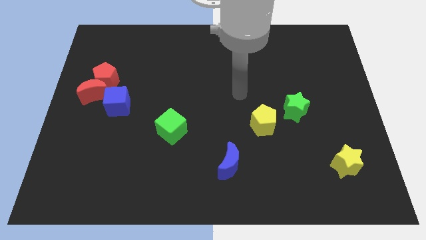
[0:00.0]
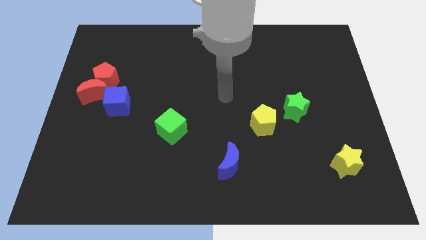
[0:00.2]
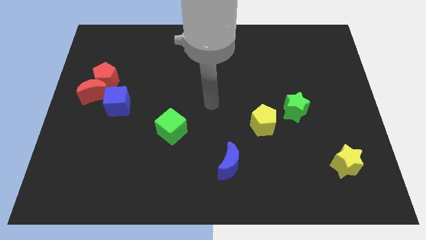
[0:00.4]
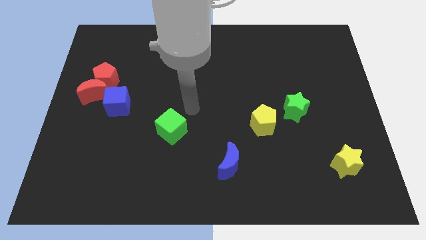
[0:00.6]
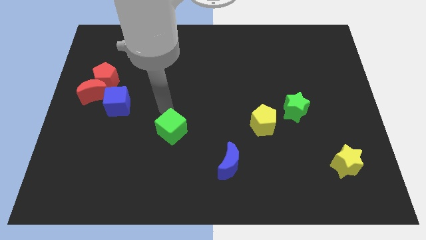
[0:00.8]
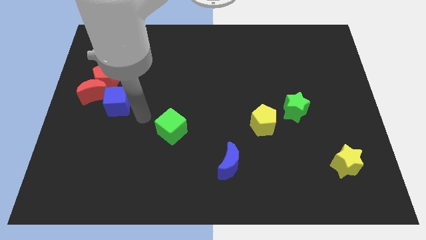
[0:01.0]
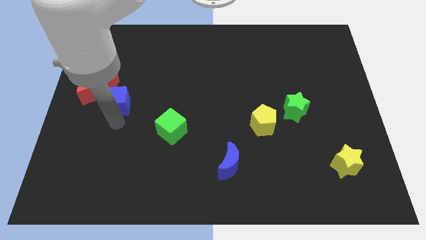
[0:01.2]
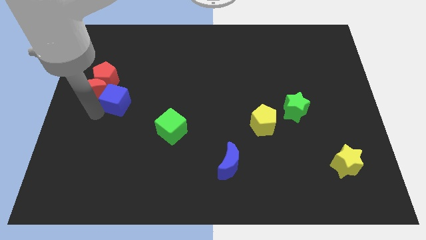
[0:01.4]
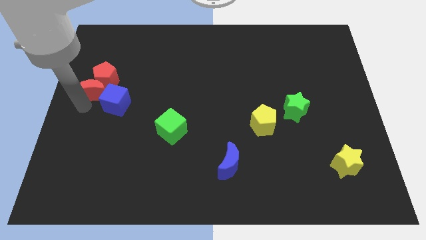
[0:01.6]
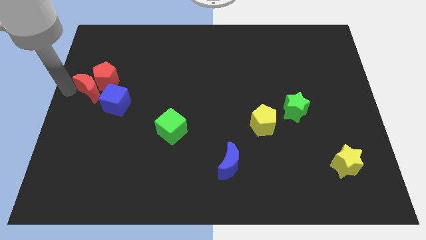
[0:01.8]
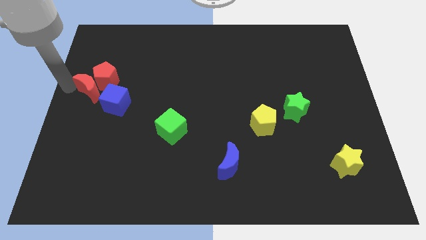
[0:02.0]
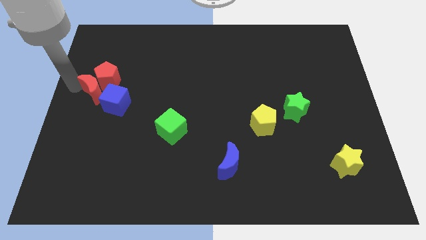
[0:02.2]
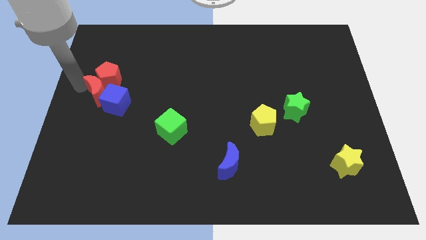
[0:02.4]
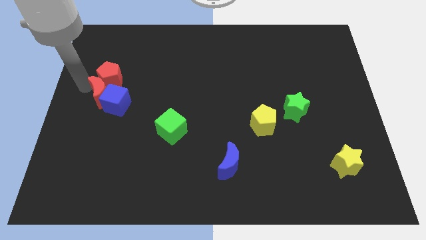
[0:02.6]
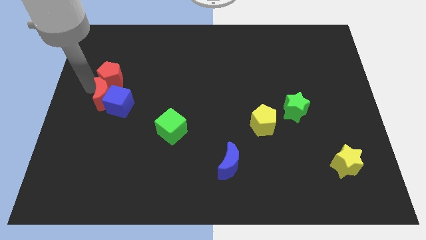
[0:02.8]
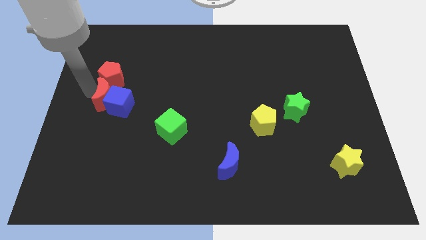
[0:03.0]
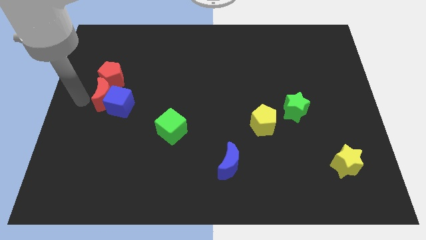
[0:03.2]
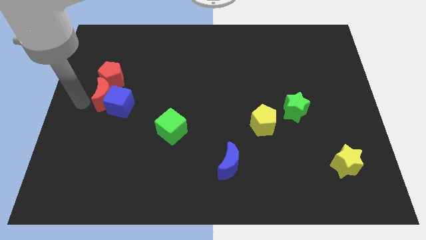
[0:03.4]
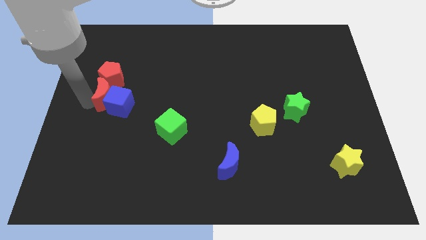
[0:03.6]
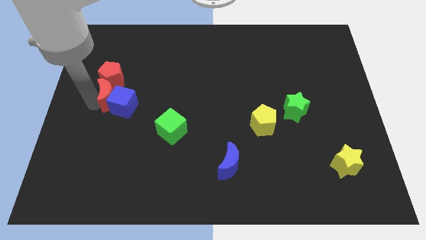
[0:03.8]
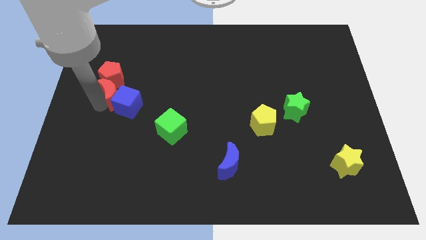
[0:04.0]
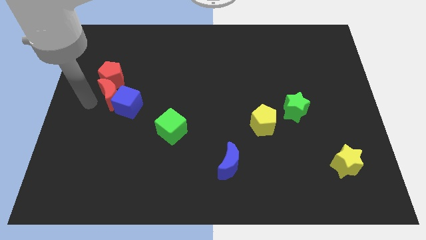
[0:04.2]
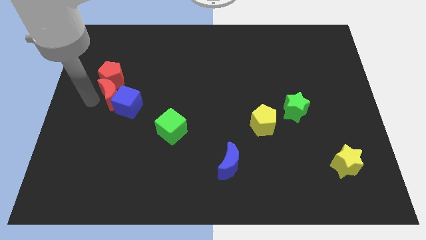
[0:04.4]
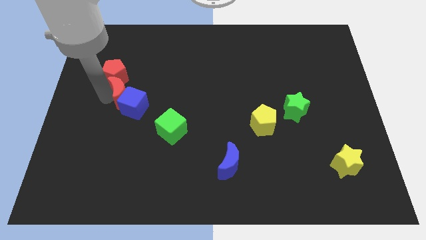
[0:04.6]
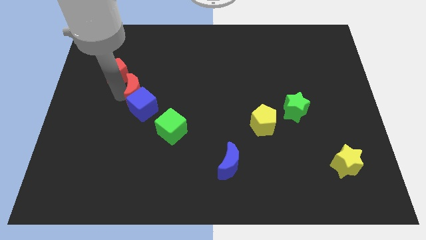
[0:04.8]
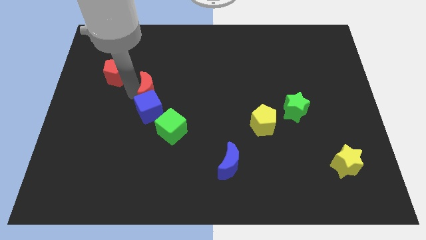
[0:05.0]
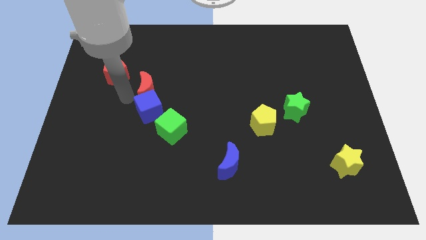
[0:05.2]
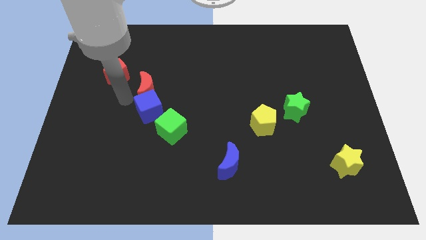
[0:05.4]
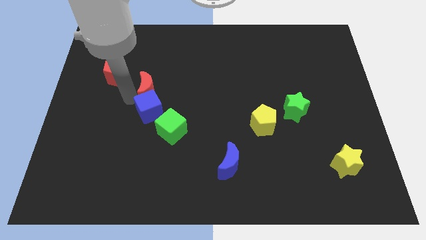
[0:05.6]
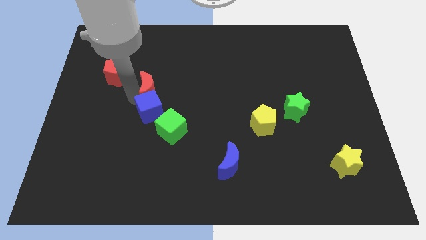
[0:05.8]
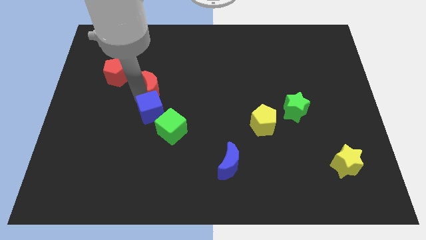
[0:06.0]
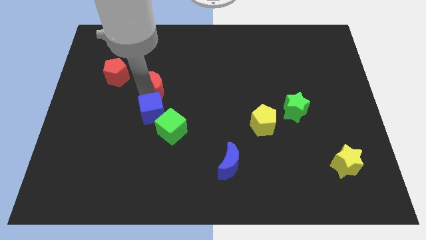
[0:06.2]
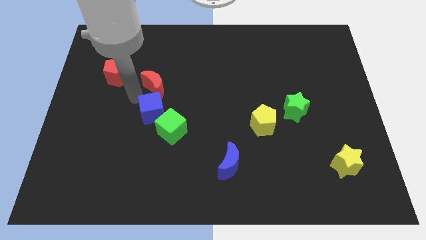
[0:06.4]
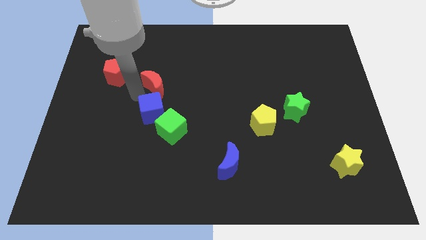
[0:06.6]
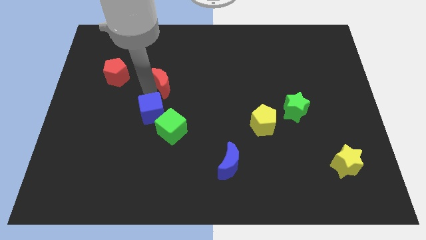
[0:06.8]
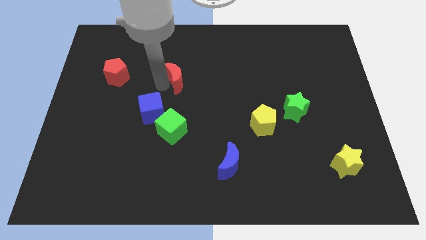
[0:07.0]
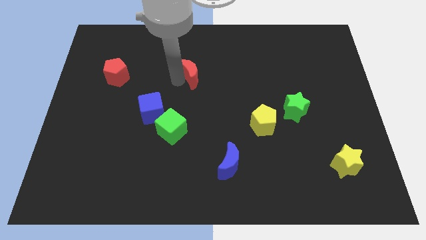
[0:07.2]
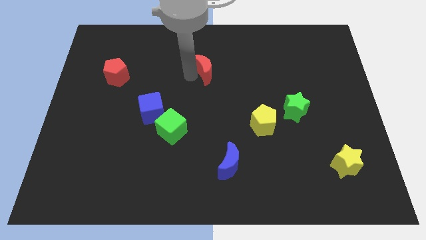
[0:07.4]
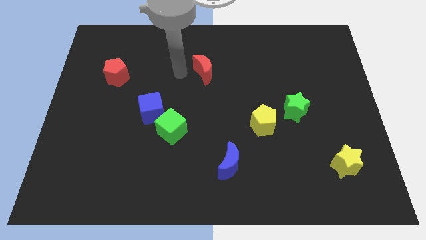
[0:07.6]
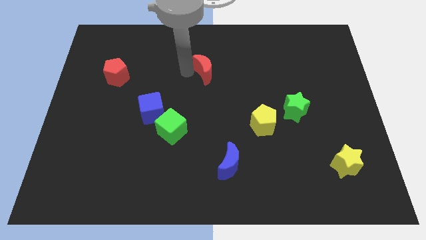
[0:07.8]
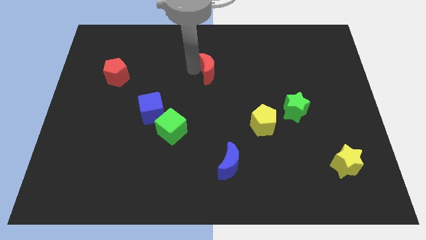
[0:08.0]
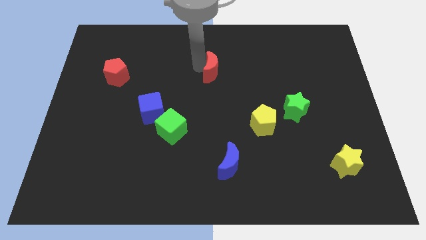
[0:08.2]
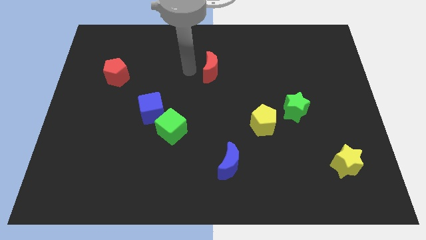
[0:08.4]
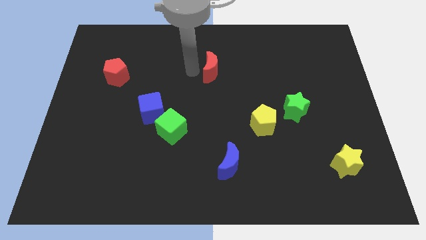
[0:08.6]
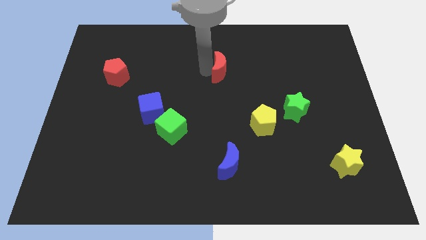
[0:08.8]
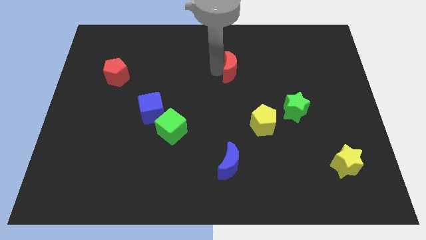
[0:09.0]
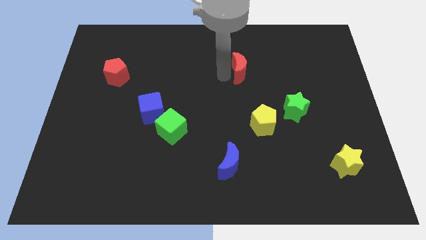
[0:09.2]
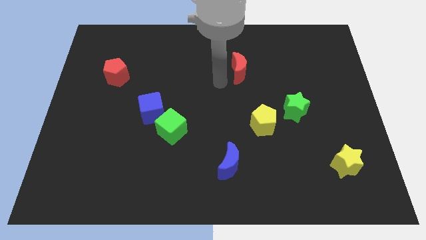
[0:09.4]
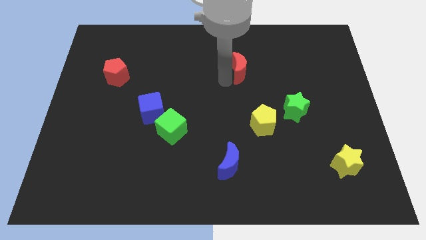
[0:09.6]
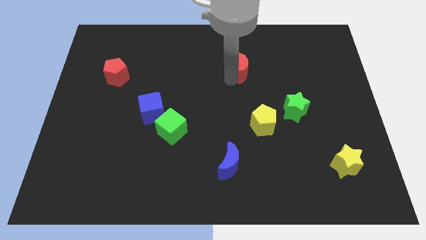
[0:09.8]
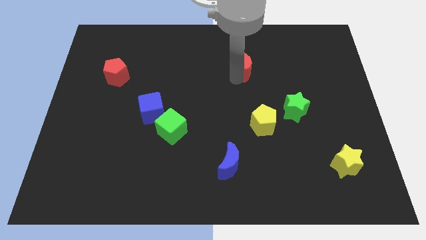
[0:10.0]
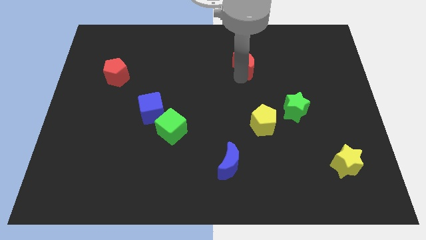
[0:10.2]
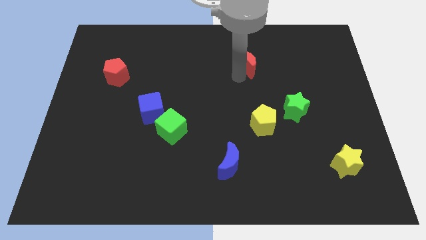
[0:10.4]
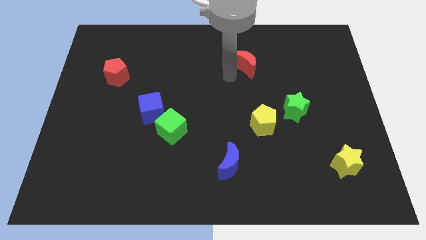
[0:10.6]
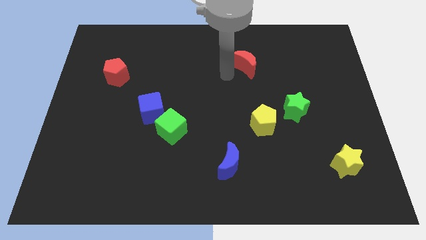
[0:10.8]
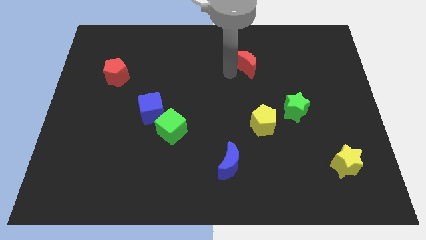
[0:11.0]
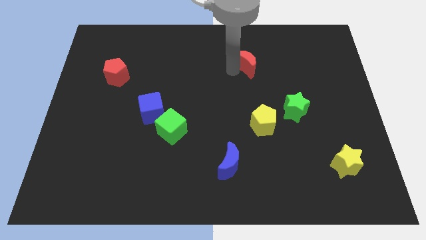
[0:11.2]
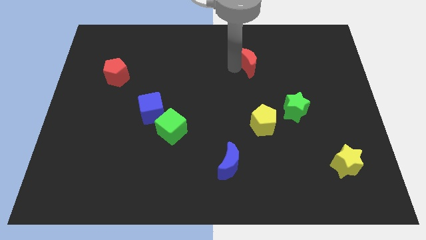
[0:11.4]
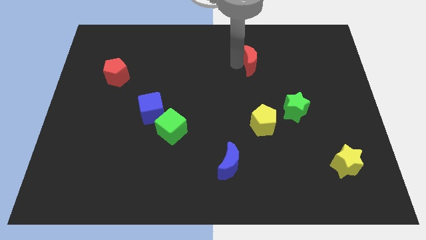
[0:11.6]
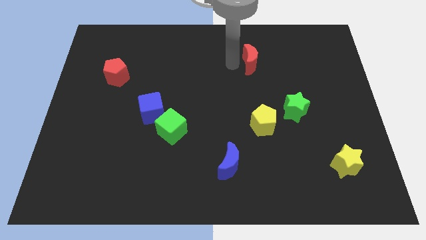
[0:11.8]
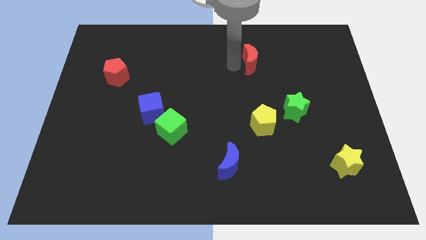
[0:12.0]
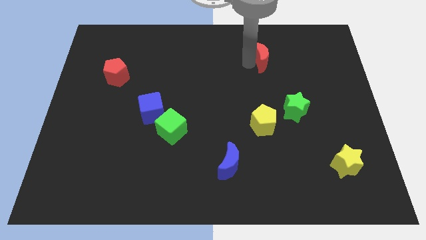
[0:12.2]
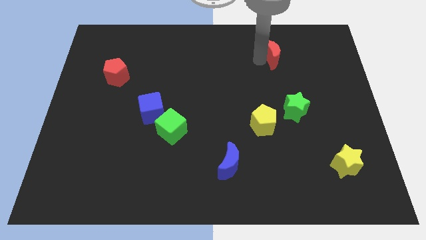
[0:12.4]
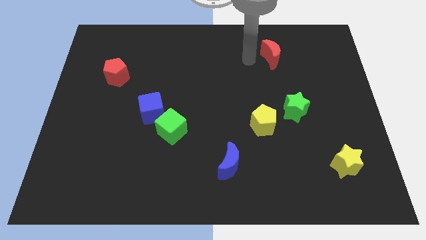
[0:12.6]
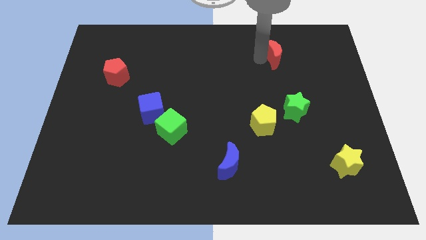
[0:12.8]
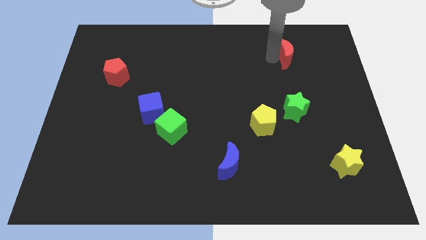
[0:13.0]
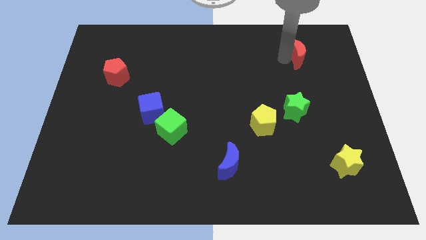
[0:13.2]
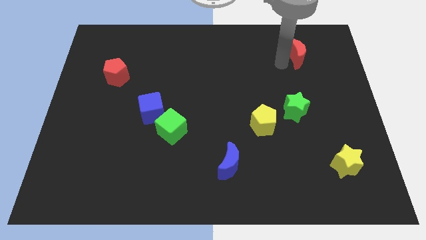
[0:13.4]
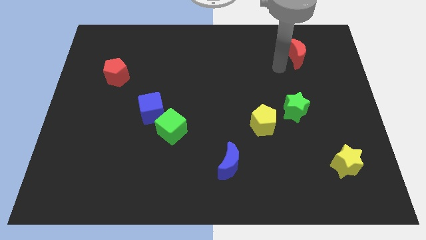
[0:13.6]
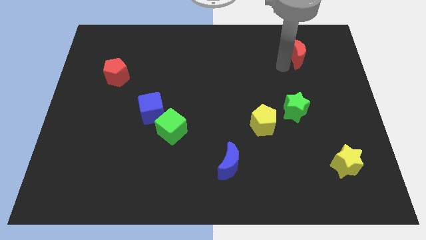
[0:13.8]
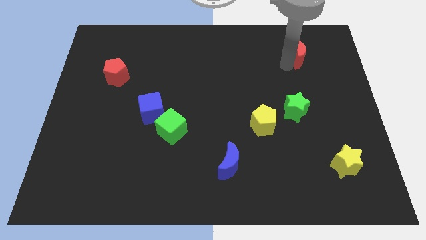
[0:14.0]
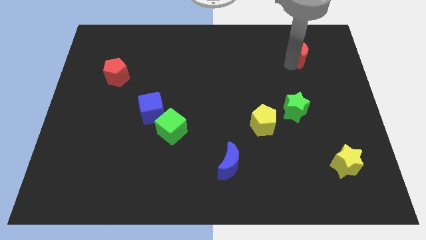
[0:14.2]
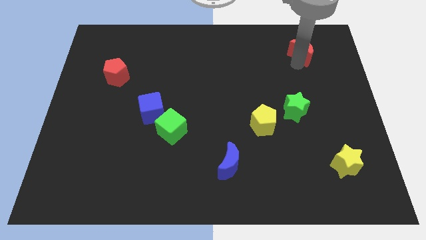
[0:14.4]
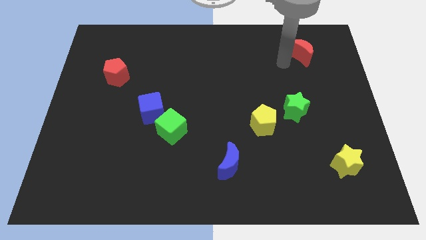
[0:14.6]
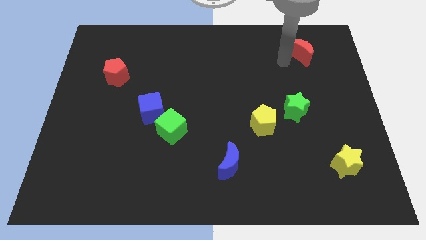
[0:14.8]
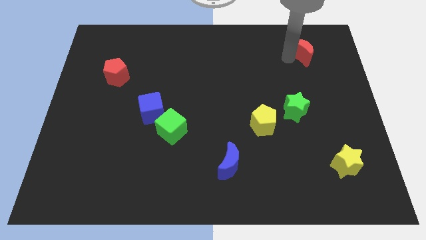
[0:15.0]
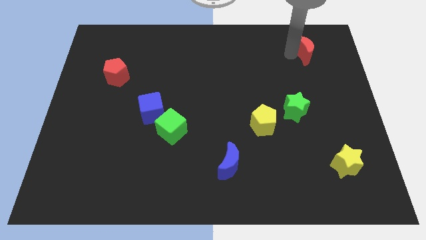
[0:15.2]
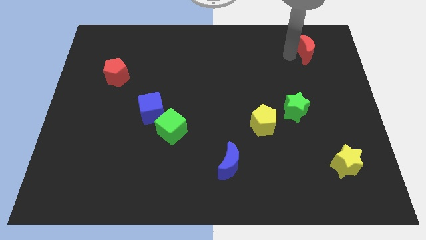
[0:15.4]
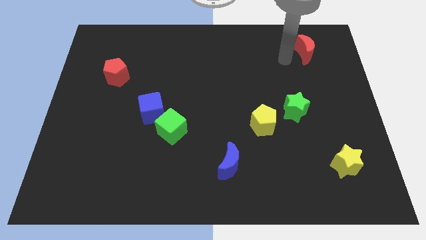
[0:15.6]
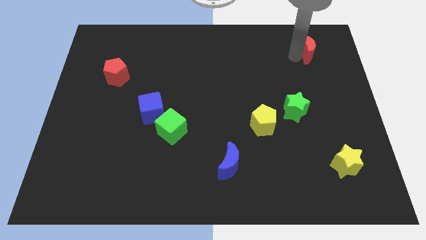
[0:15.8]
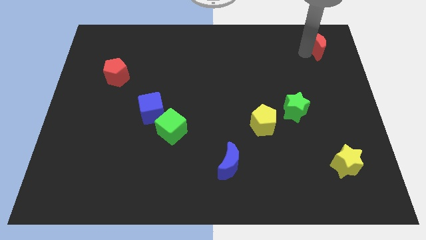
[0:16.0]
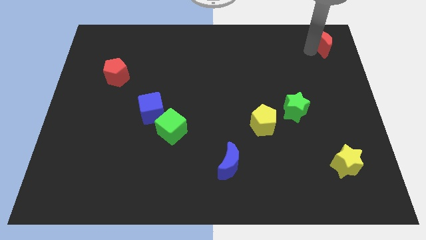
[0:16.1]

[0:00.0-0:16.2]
move the red moon to the upper right corner
